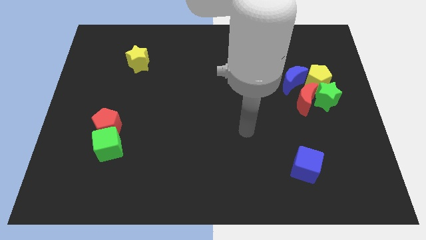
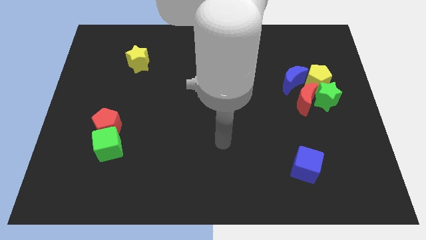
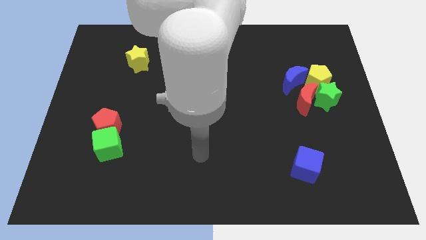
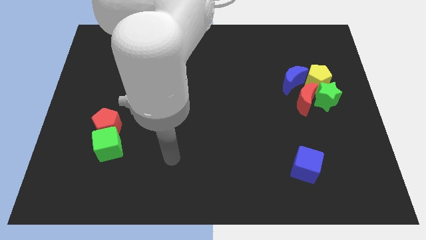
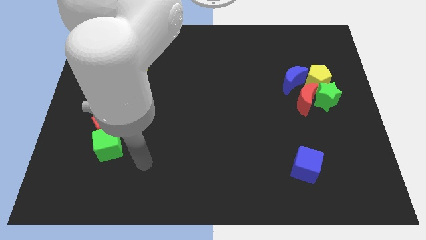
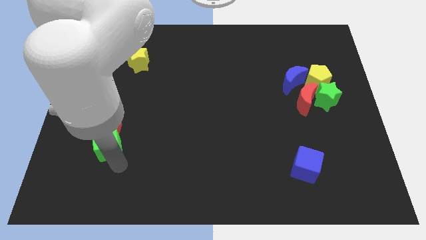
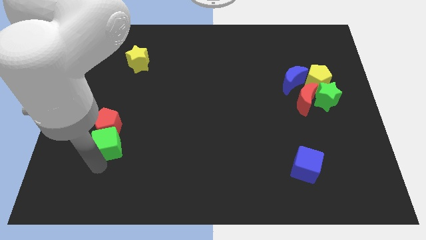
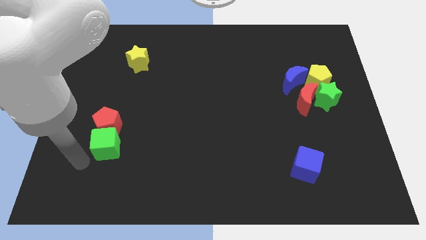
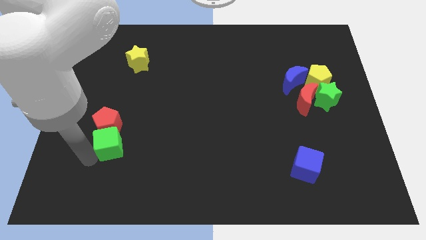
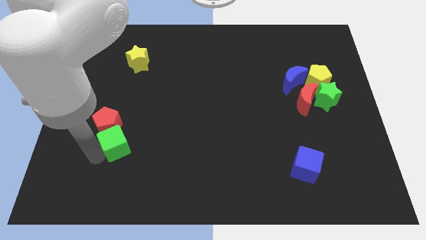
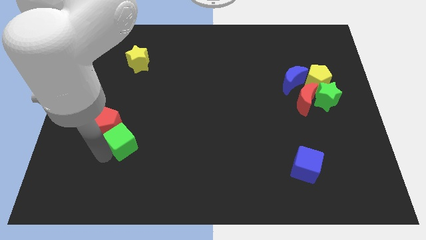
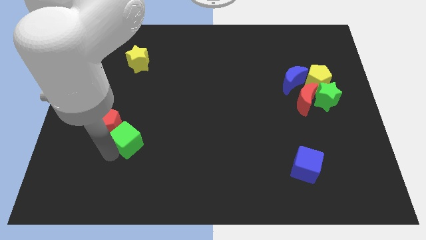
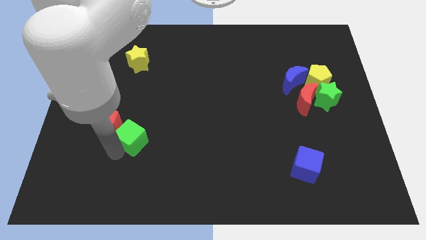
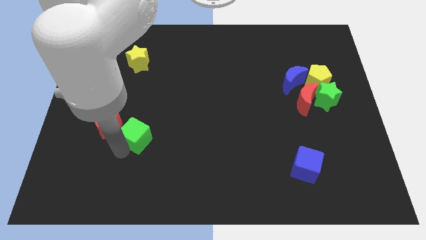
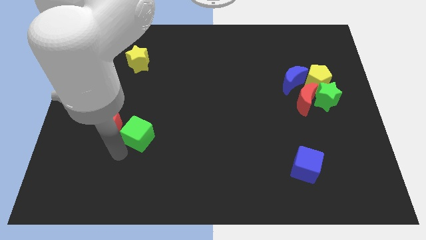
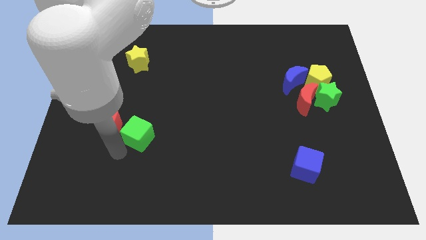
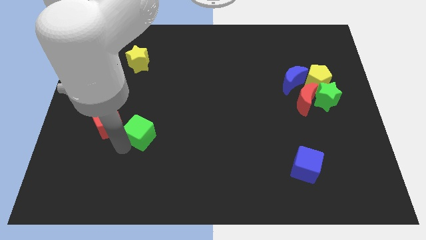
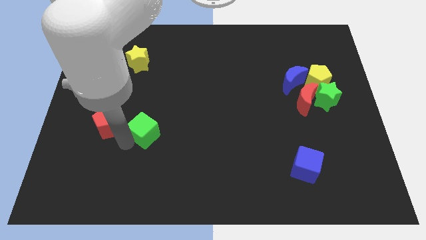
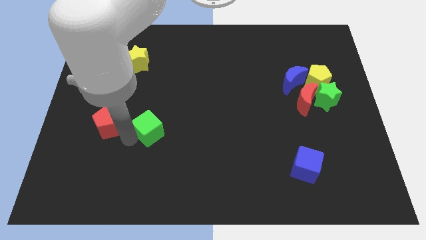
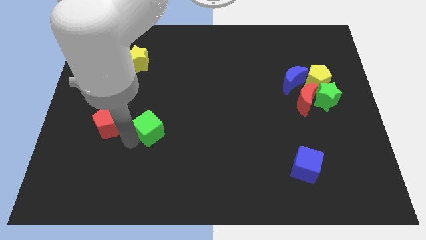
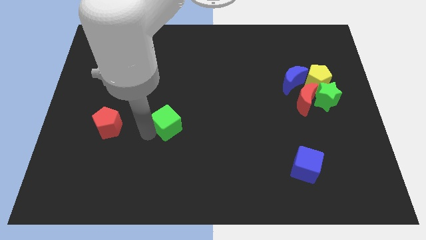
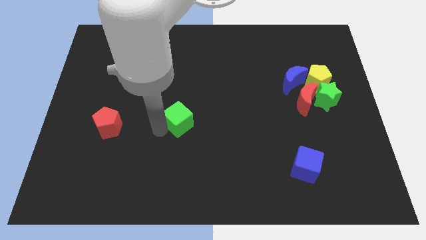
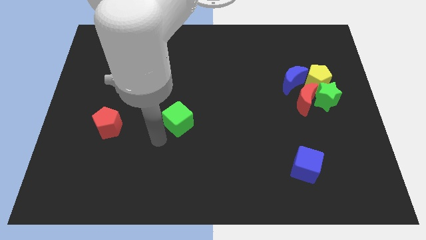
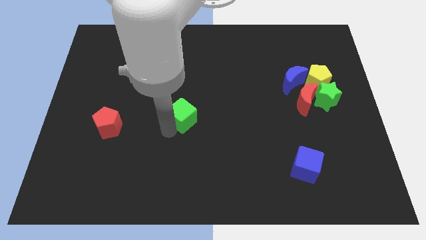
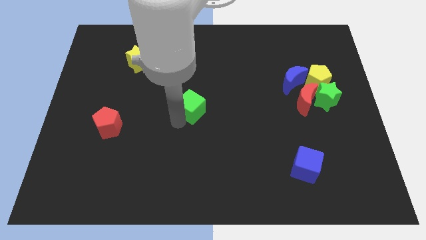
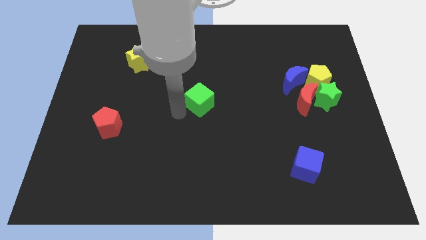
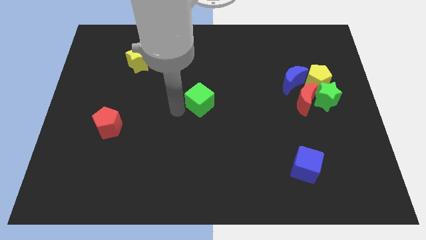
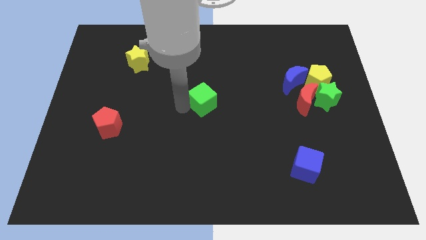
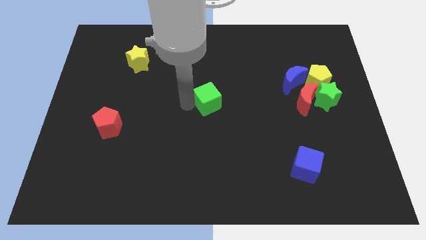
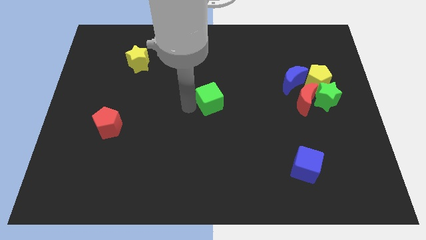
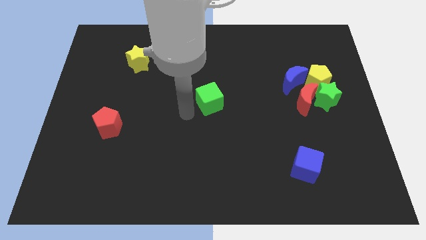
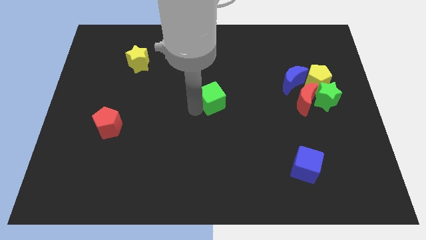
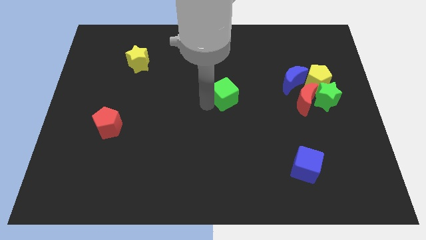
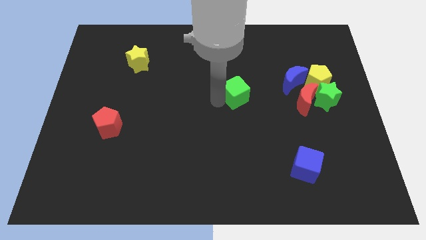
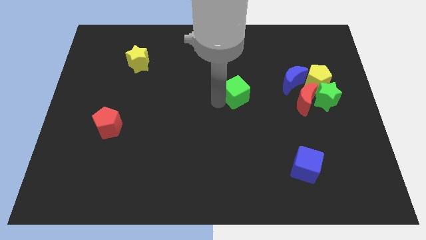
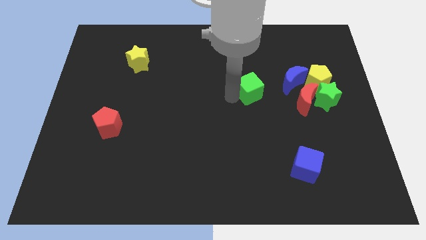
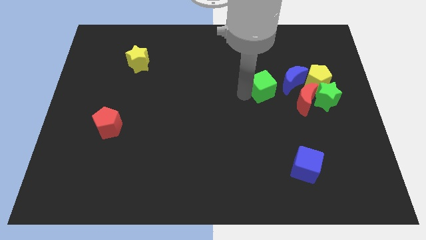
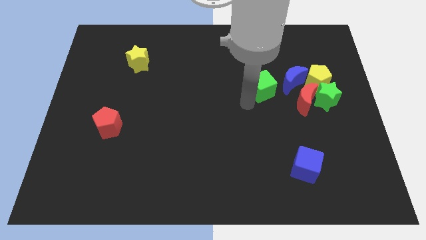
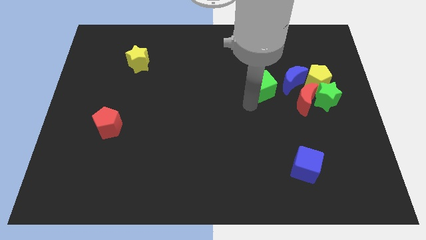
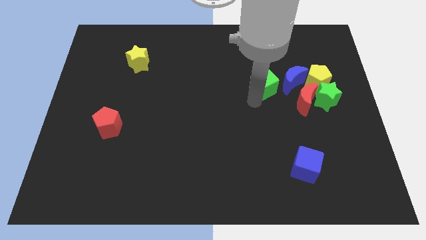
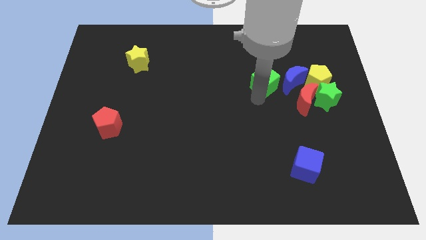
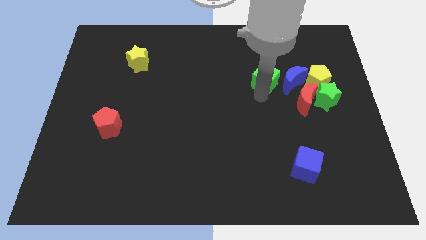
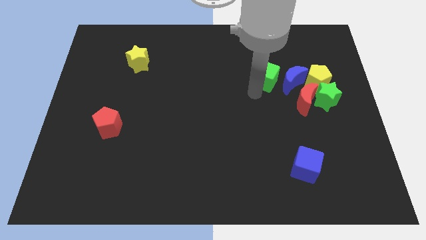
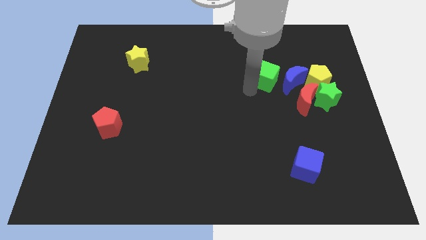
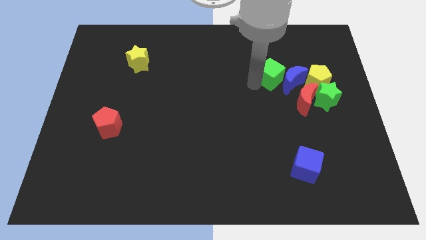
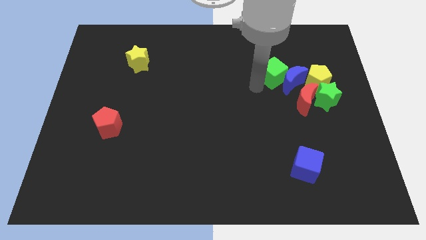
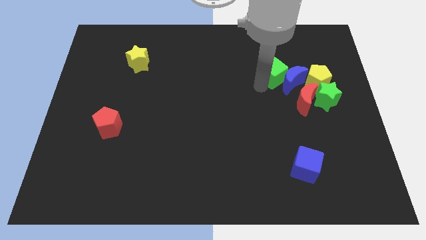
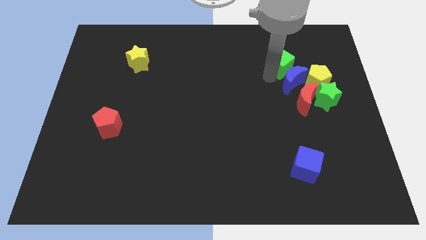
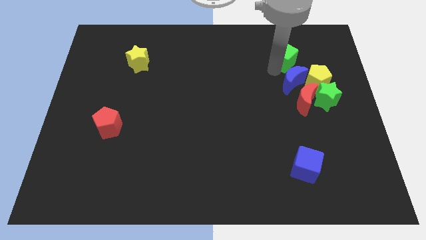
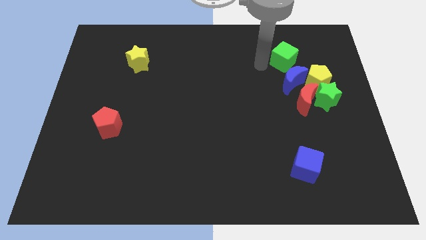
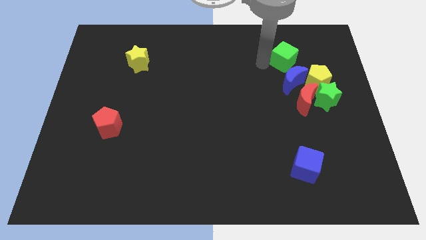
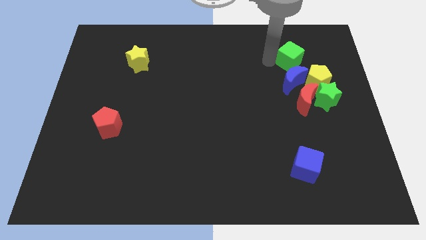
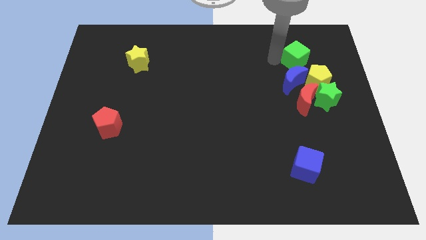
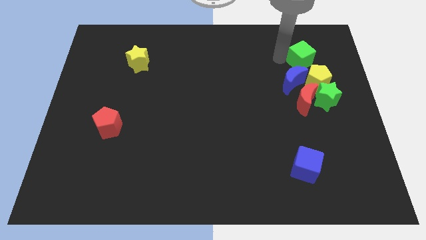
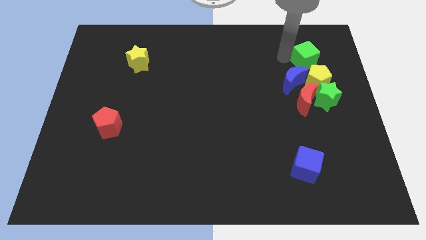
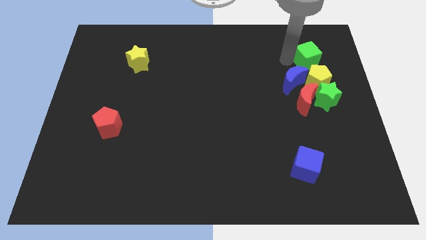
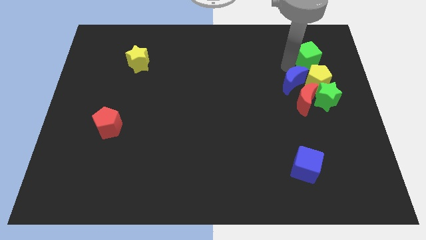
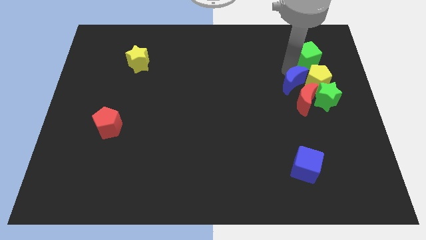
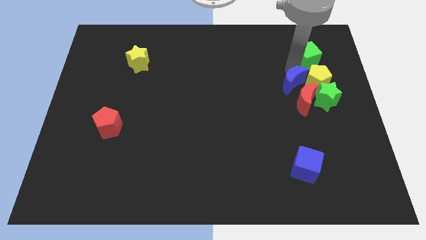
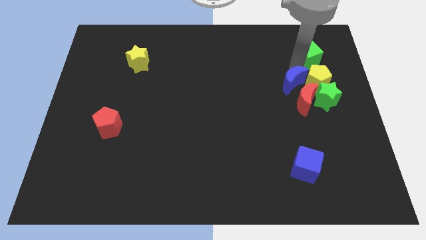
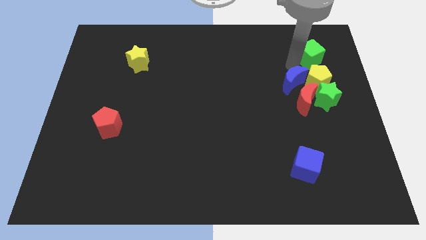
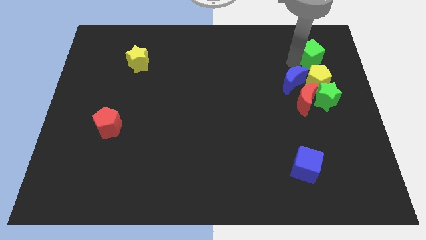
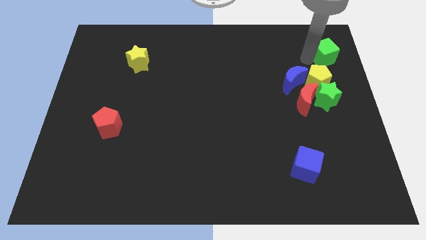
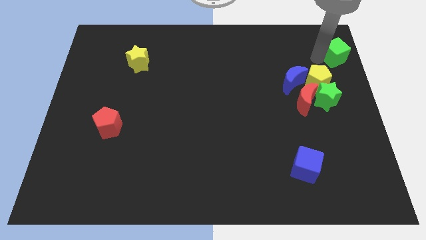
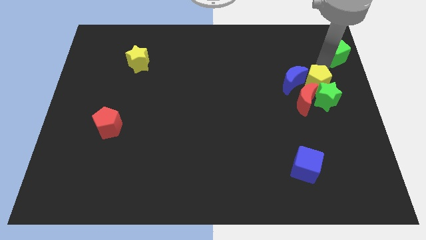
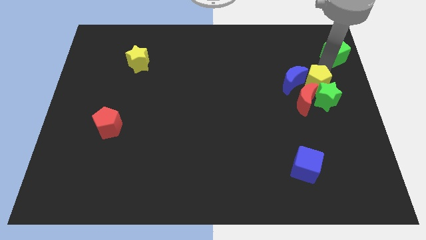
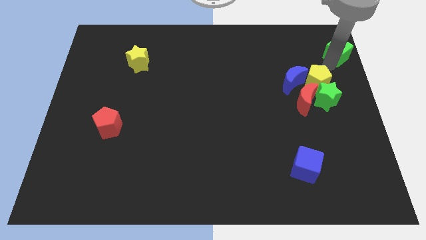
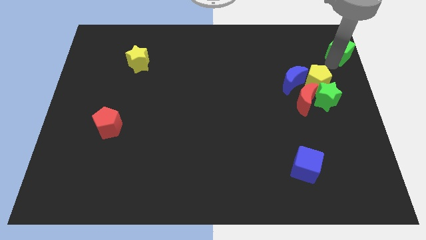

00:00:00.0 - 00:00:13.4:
move the green cube to the top right of the board

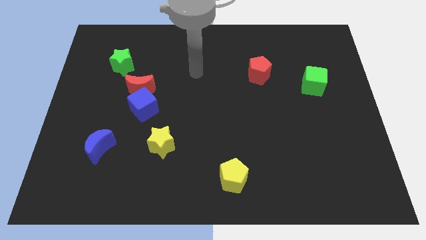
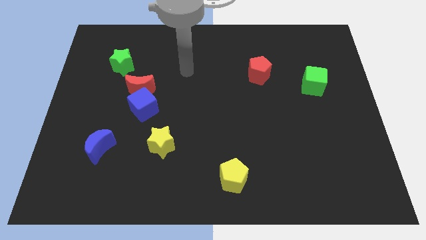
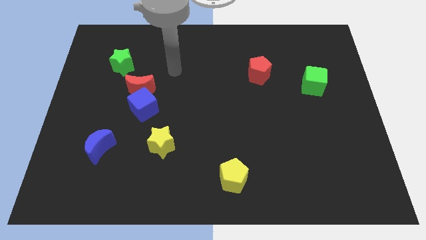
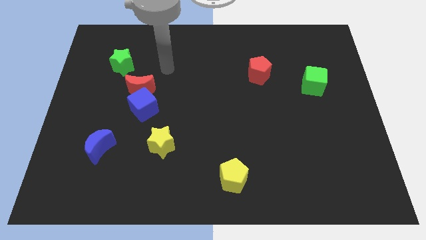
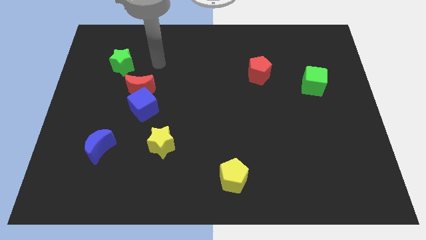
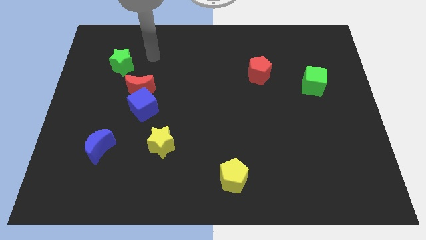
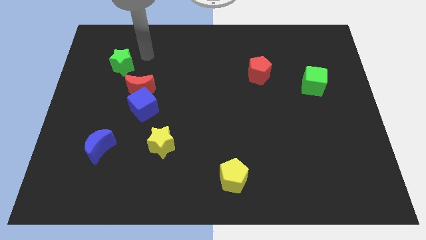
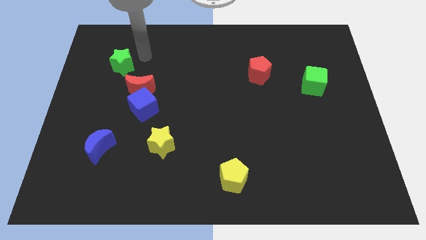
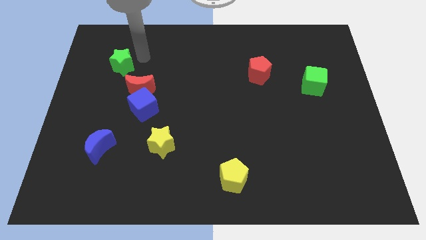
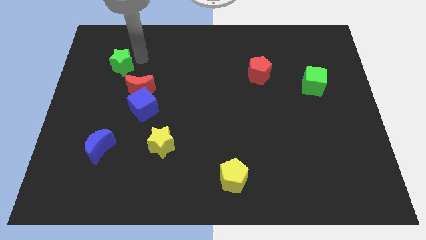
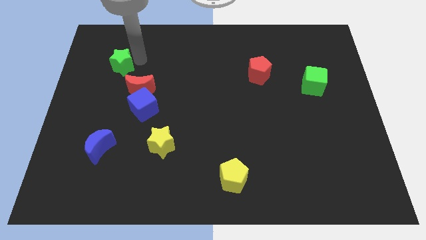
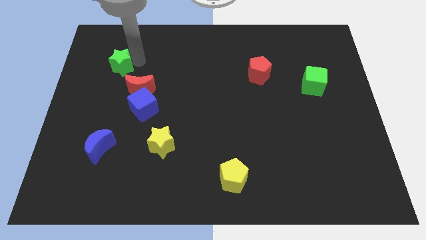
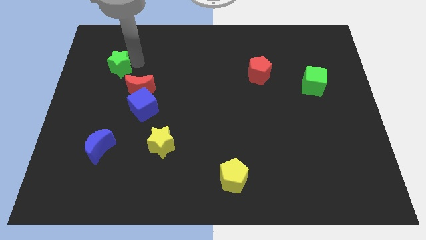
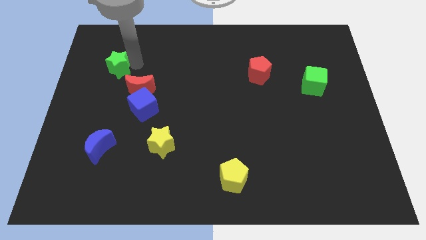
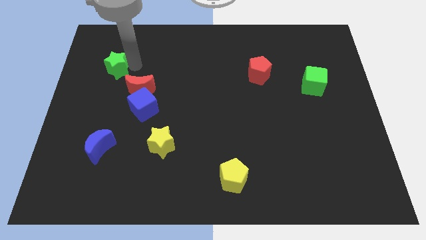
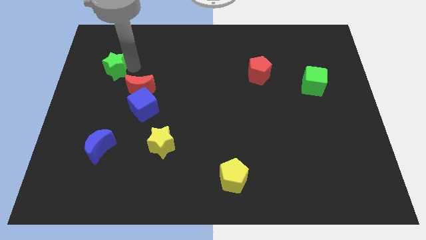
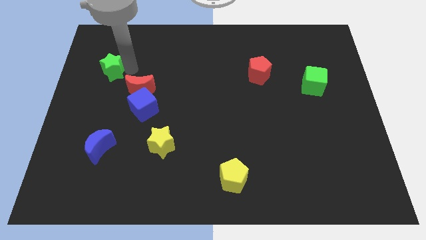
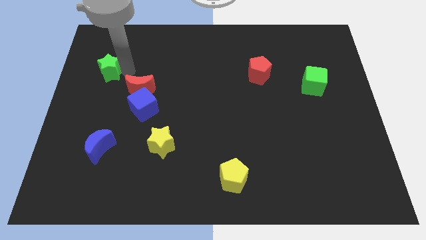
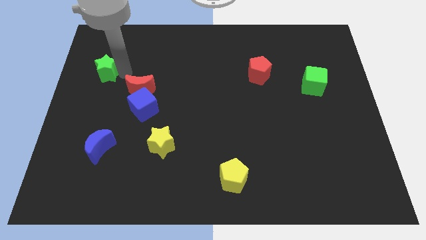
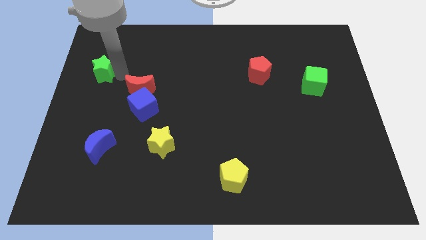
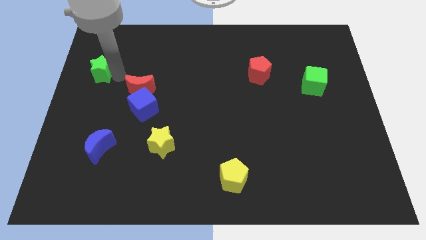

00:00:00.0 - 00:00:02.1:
put the green star to the center left
